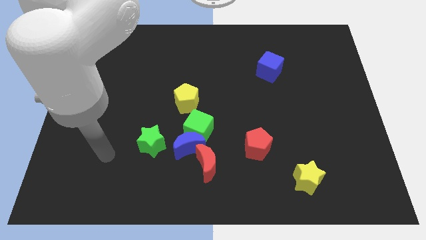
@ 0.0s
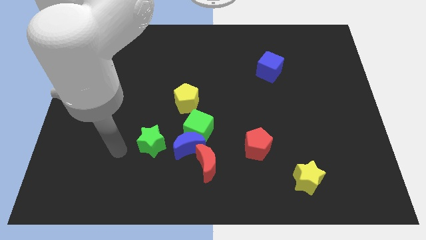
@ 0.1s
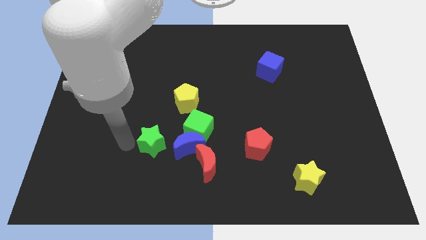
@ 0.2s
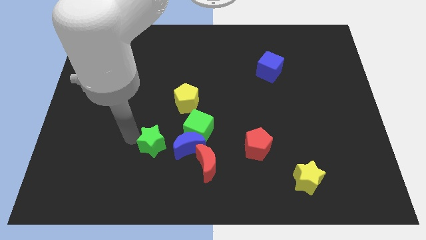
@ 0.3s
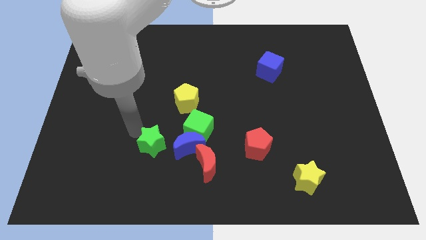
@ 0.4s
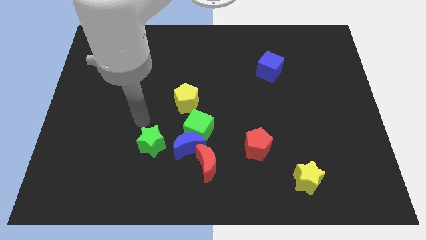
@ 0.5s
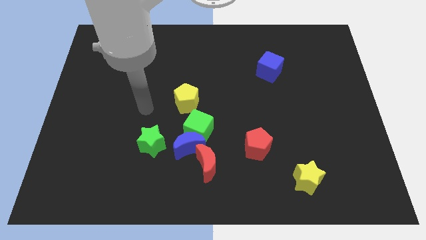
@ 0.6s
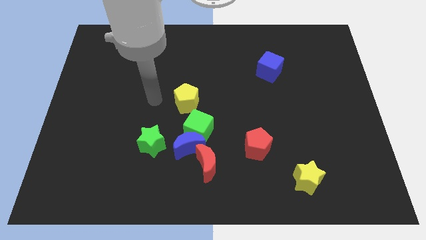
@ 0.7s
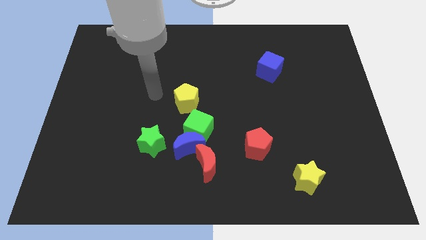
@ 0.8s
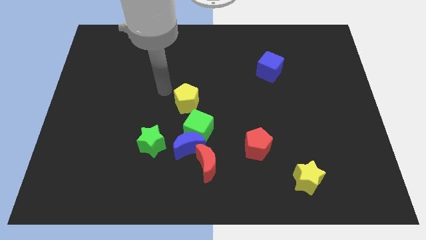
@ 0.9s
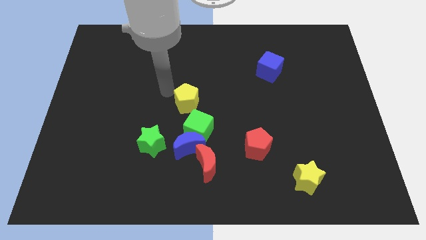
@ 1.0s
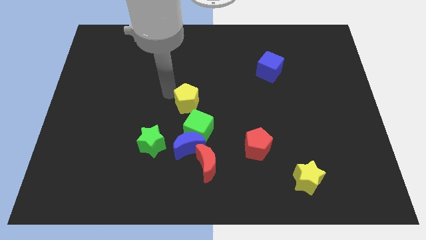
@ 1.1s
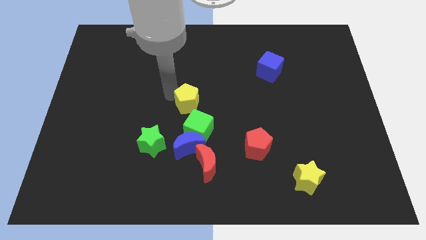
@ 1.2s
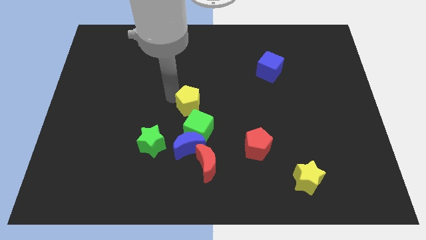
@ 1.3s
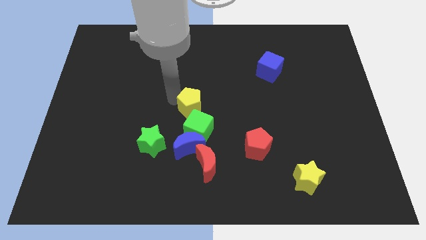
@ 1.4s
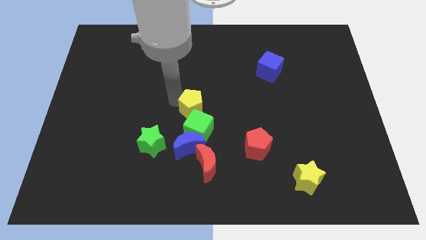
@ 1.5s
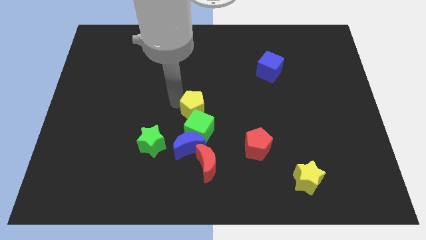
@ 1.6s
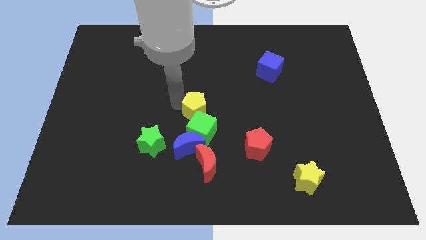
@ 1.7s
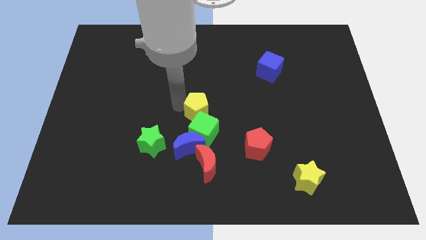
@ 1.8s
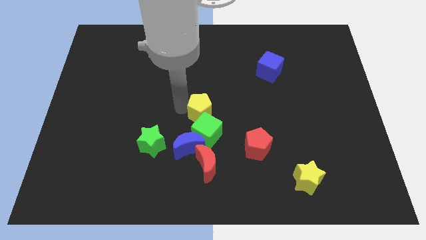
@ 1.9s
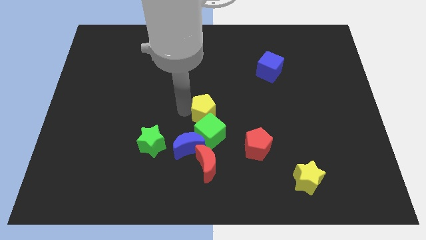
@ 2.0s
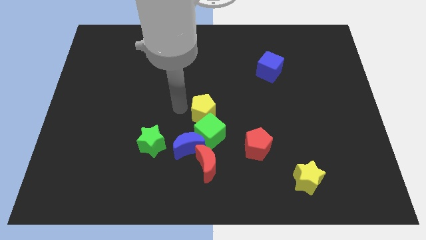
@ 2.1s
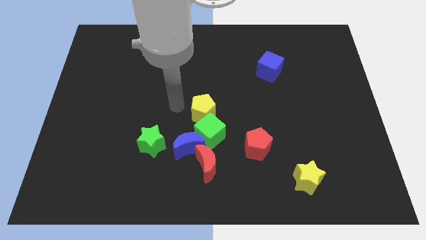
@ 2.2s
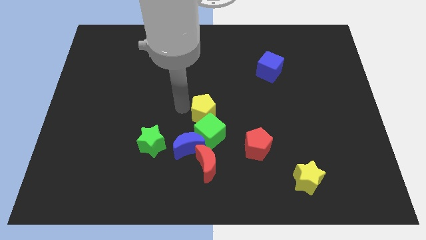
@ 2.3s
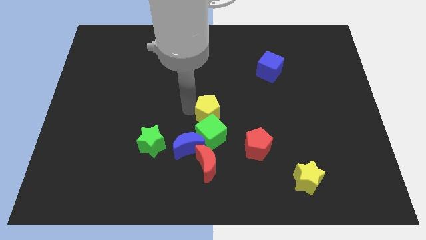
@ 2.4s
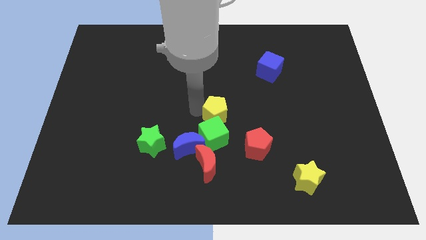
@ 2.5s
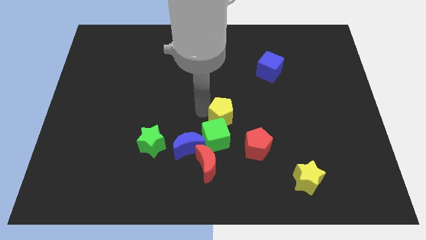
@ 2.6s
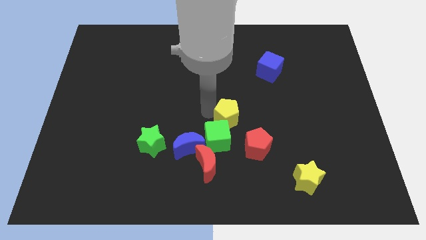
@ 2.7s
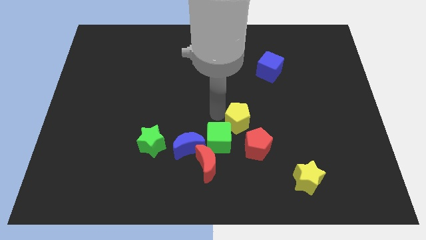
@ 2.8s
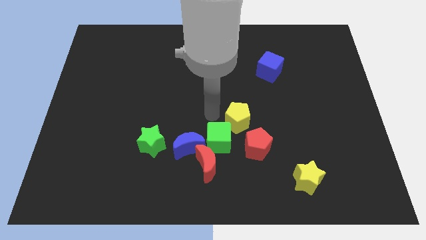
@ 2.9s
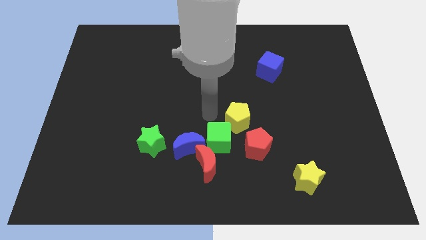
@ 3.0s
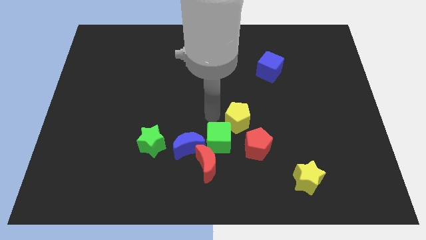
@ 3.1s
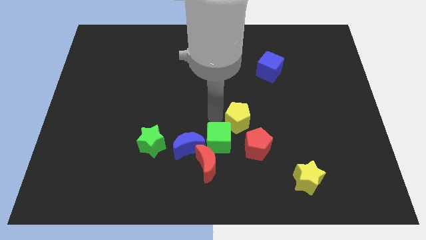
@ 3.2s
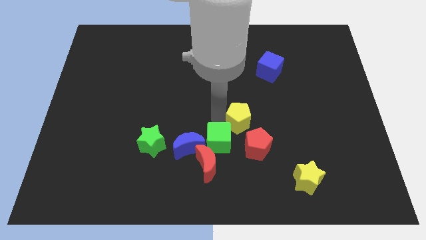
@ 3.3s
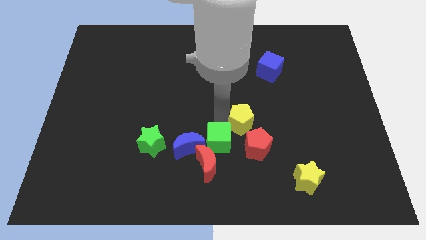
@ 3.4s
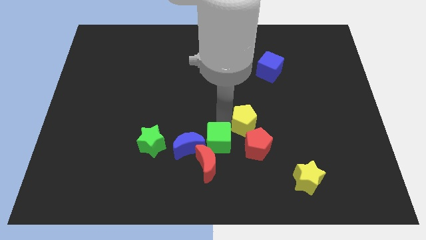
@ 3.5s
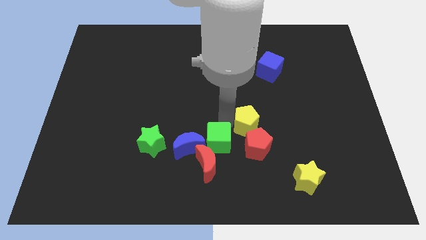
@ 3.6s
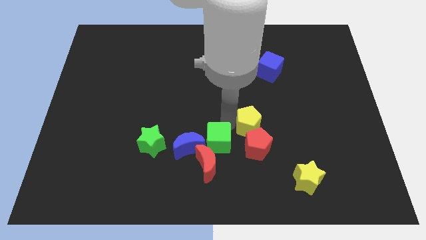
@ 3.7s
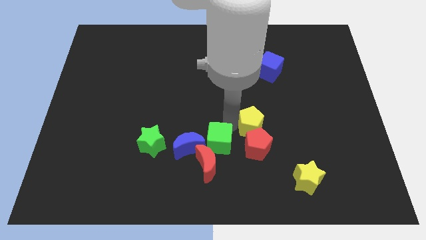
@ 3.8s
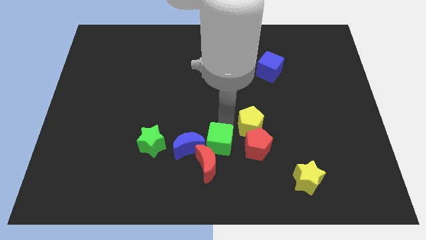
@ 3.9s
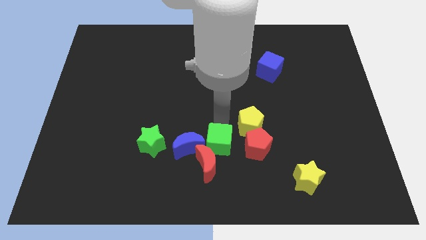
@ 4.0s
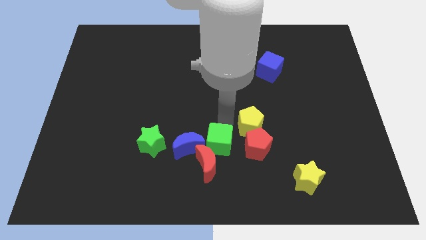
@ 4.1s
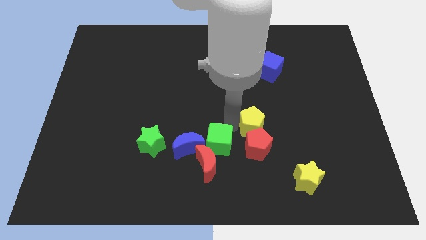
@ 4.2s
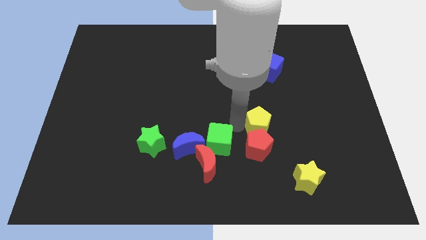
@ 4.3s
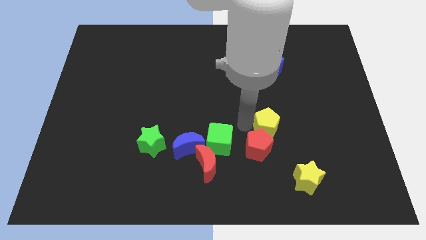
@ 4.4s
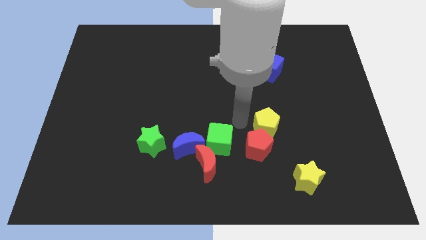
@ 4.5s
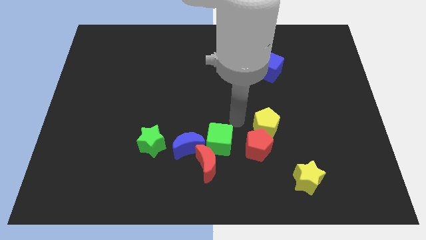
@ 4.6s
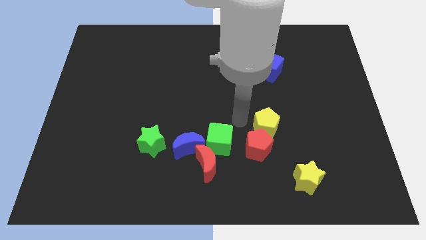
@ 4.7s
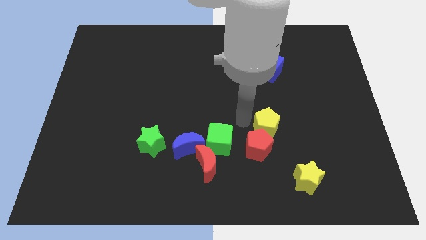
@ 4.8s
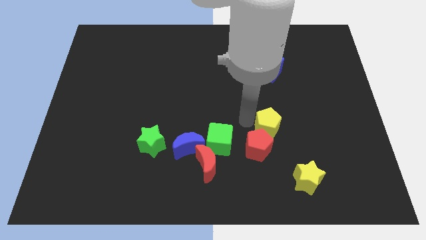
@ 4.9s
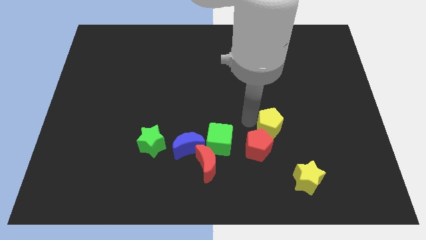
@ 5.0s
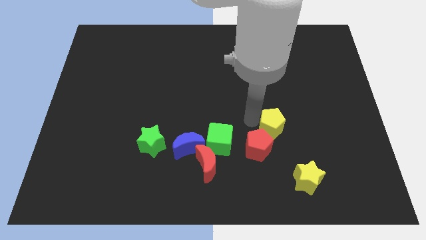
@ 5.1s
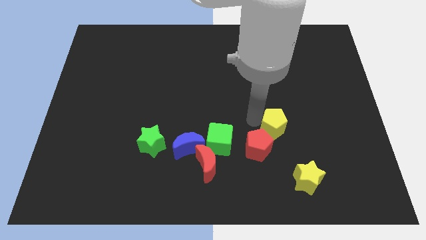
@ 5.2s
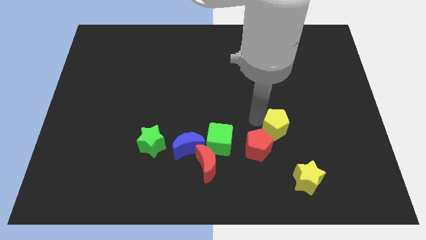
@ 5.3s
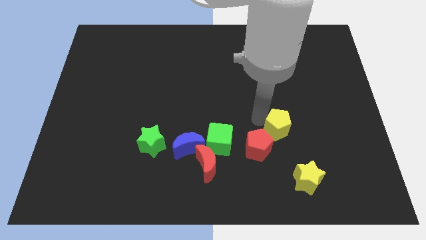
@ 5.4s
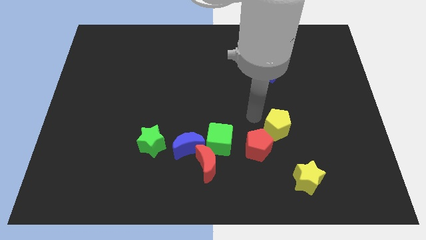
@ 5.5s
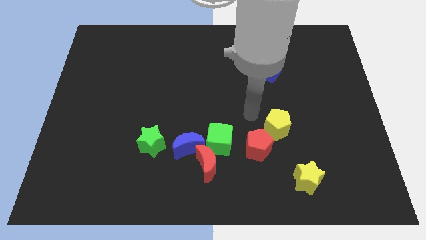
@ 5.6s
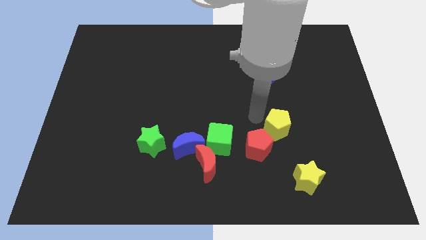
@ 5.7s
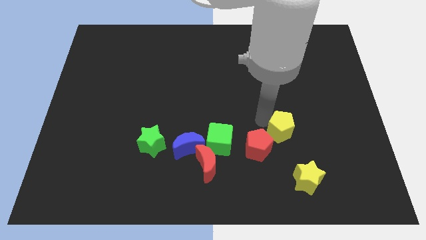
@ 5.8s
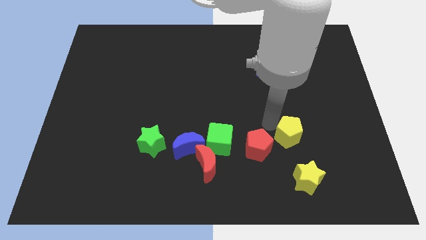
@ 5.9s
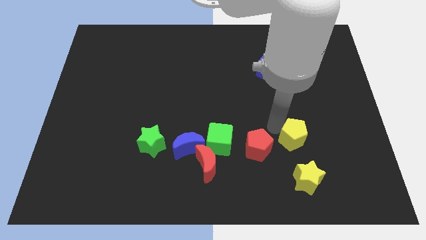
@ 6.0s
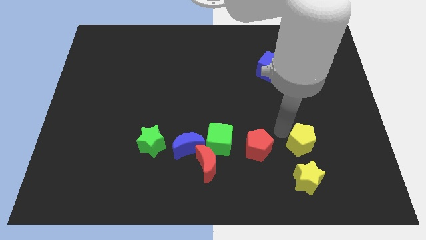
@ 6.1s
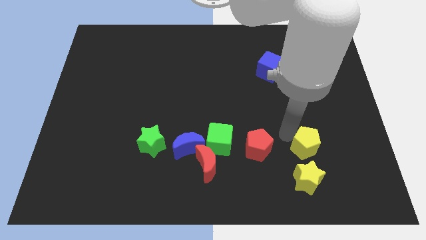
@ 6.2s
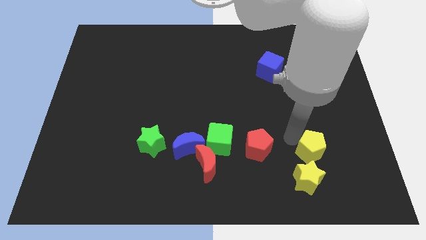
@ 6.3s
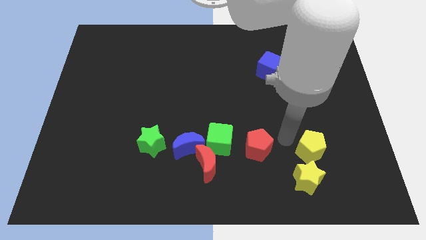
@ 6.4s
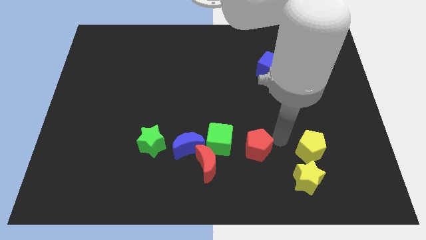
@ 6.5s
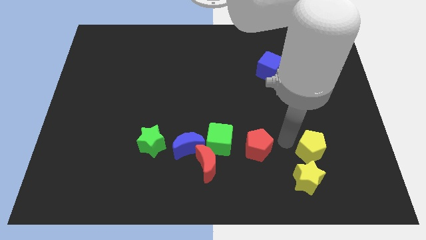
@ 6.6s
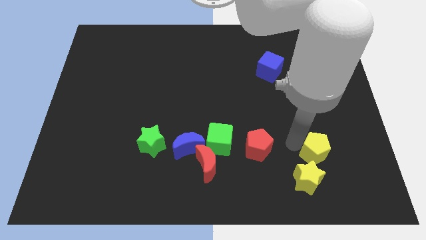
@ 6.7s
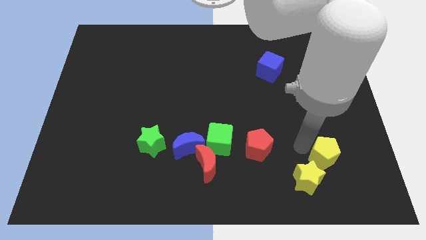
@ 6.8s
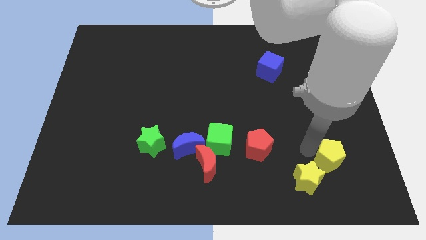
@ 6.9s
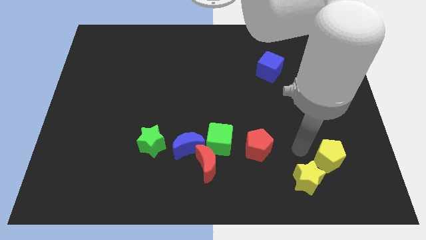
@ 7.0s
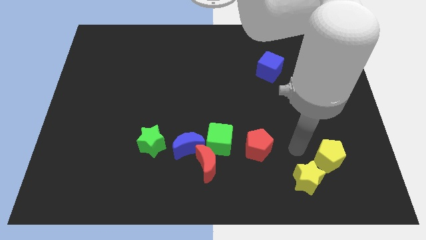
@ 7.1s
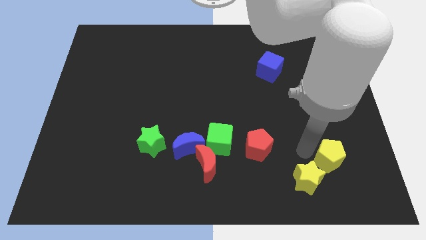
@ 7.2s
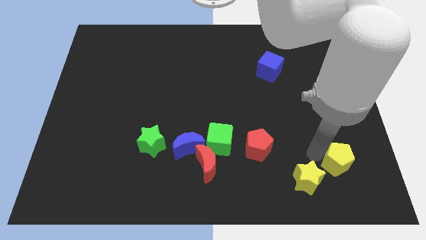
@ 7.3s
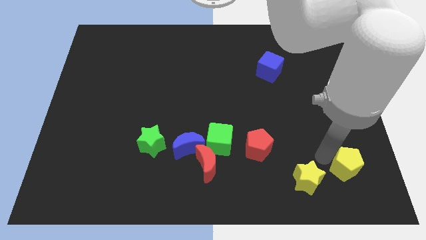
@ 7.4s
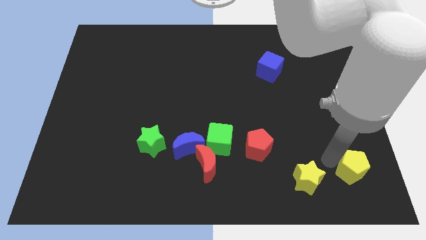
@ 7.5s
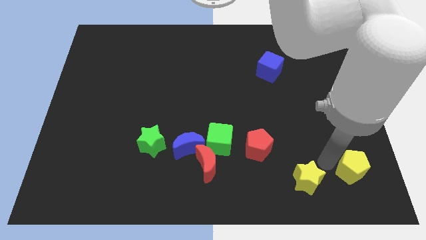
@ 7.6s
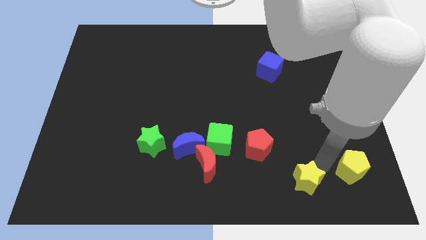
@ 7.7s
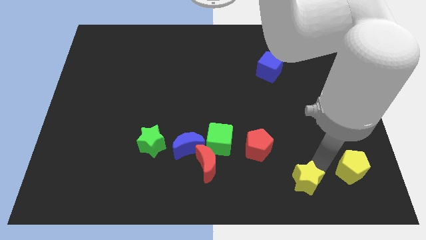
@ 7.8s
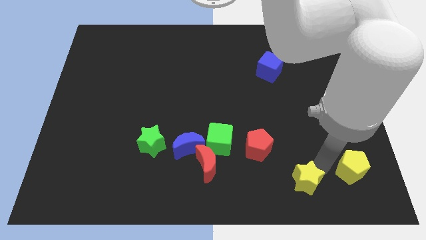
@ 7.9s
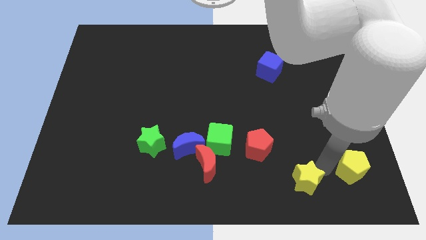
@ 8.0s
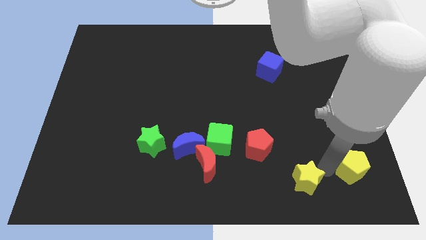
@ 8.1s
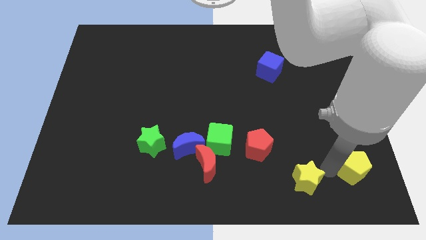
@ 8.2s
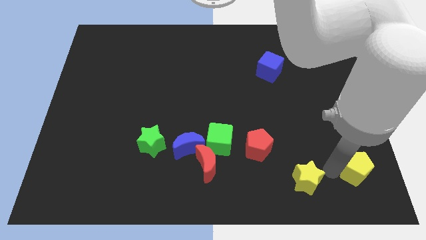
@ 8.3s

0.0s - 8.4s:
move the yellow pentagon to the bottom right of the board
